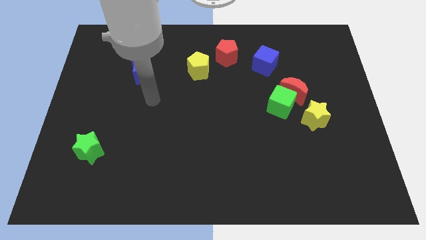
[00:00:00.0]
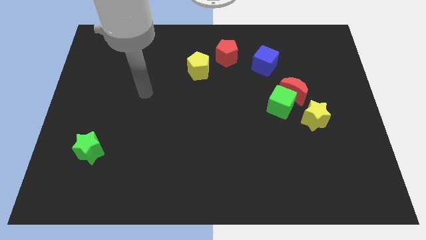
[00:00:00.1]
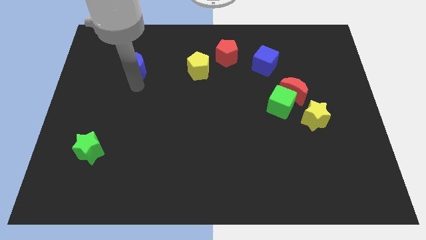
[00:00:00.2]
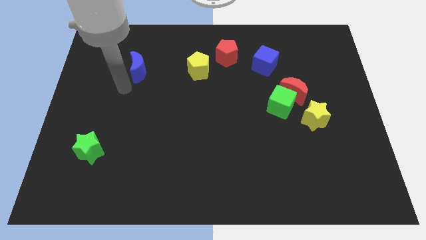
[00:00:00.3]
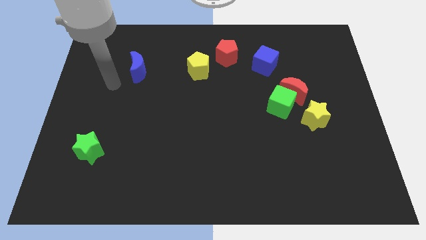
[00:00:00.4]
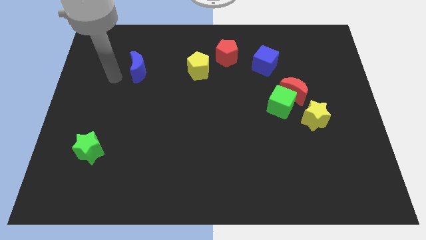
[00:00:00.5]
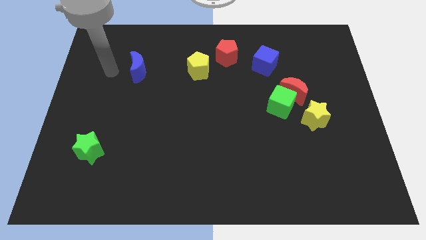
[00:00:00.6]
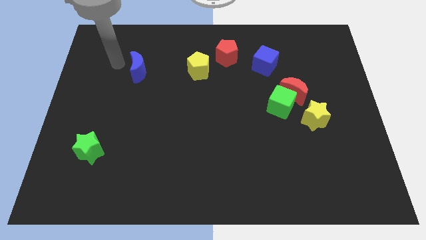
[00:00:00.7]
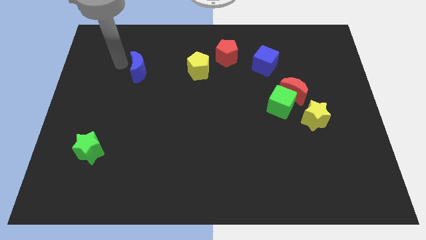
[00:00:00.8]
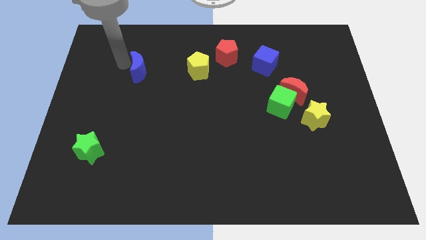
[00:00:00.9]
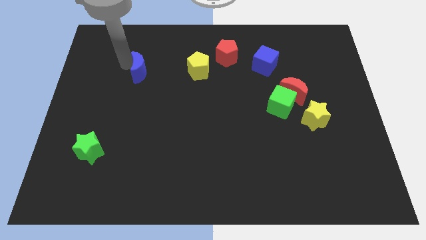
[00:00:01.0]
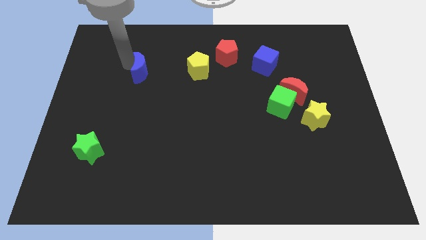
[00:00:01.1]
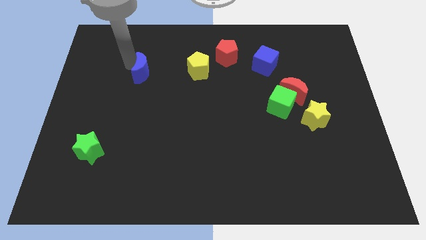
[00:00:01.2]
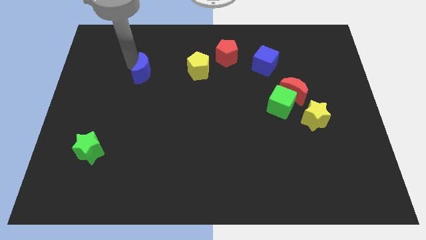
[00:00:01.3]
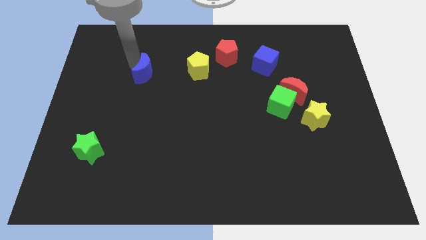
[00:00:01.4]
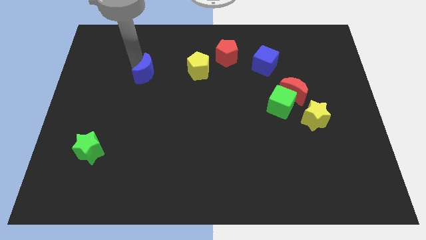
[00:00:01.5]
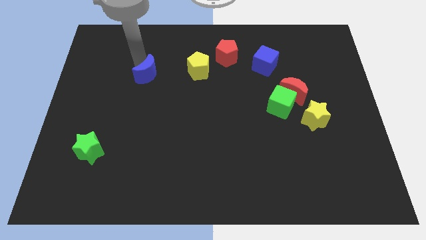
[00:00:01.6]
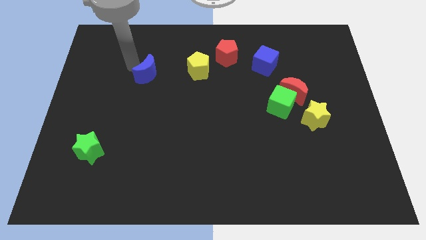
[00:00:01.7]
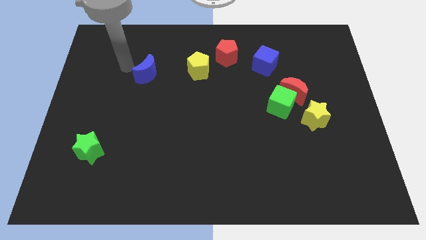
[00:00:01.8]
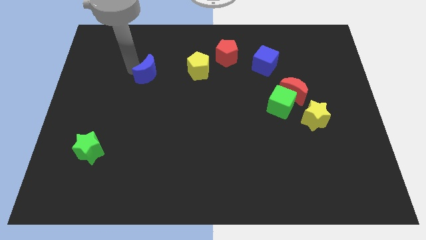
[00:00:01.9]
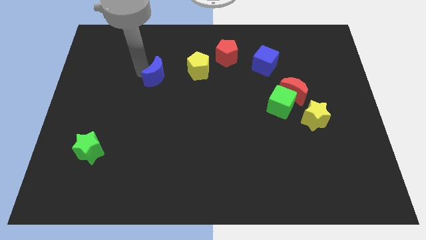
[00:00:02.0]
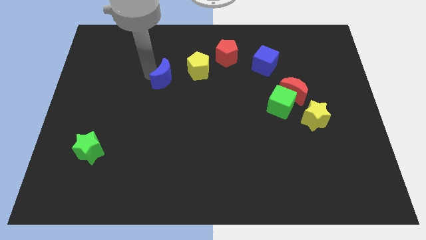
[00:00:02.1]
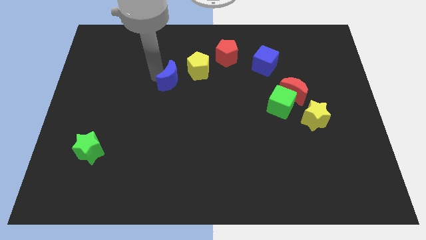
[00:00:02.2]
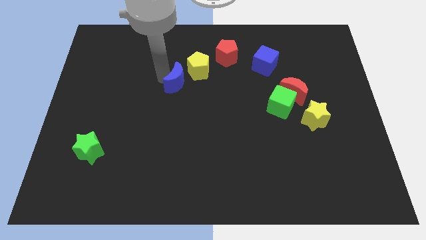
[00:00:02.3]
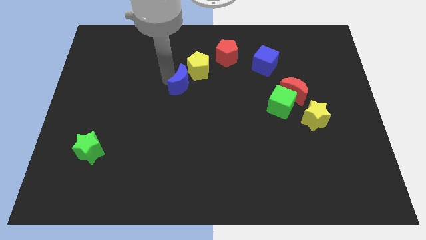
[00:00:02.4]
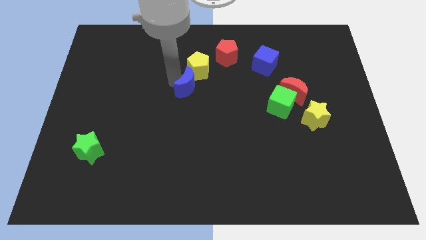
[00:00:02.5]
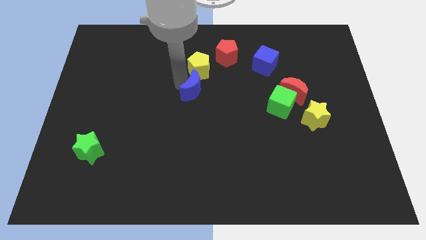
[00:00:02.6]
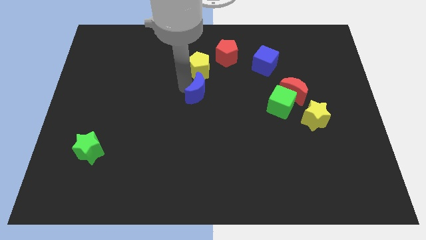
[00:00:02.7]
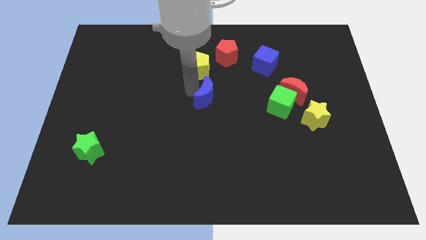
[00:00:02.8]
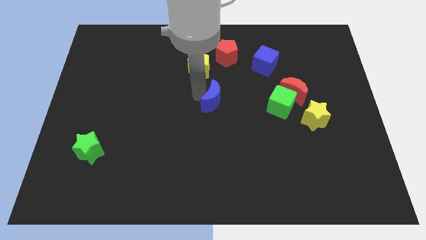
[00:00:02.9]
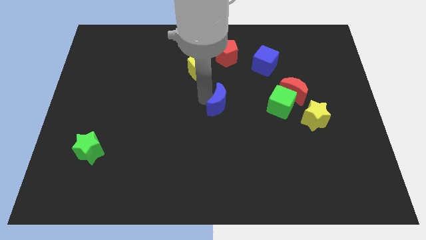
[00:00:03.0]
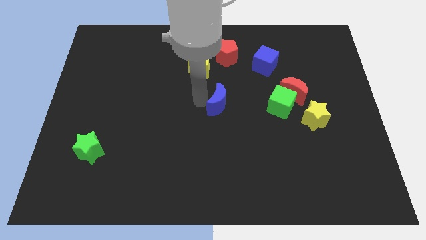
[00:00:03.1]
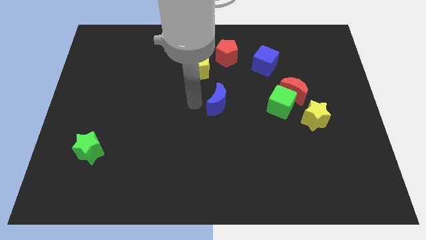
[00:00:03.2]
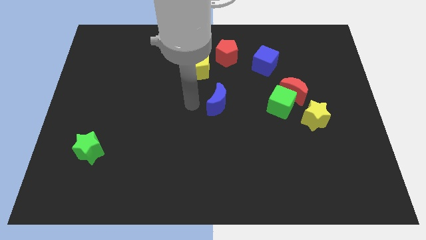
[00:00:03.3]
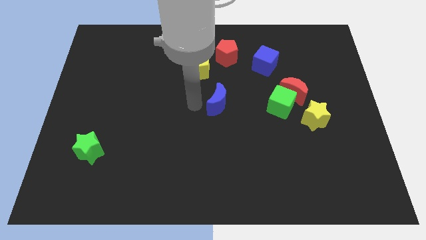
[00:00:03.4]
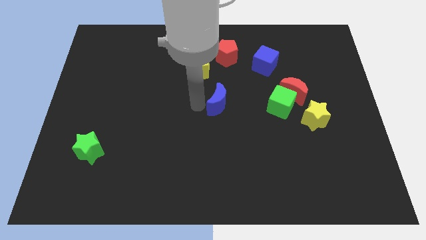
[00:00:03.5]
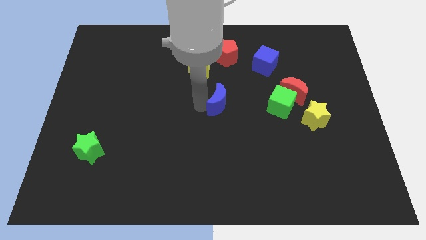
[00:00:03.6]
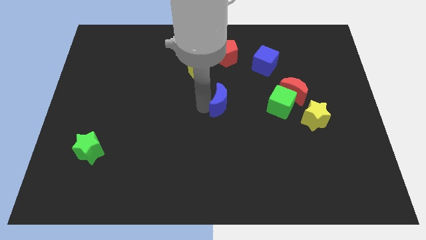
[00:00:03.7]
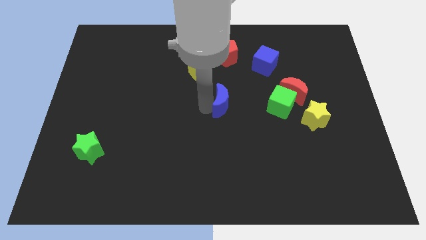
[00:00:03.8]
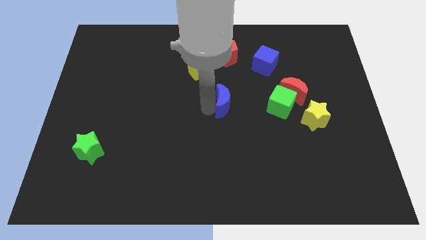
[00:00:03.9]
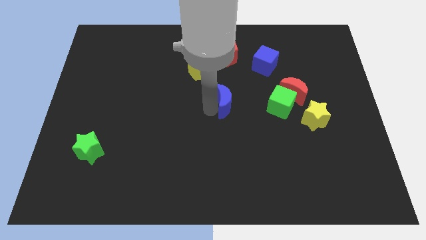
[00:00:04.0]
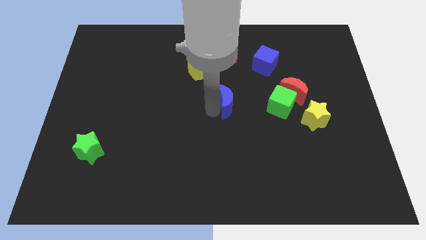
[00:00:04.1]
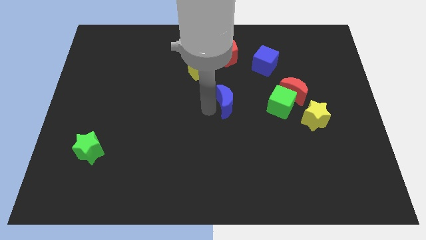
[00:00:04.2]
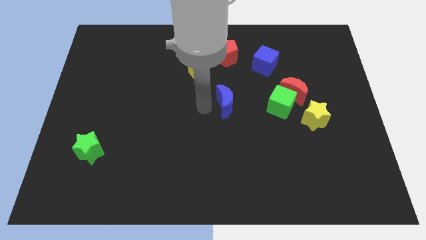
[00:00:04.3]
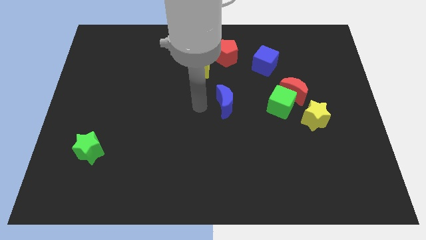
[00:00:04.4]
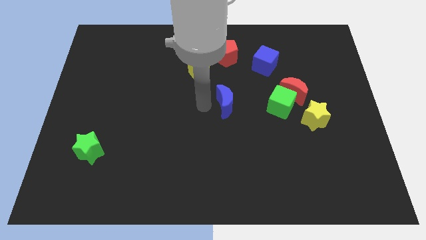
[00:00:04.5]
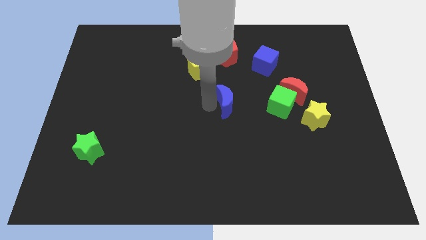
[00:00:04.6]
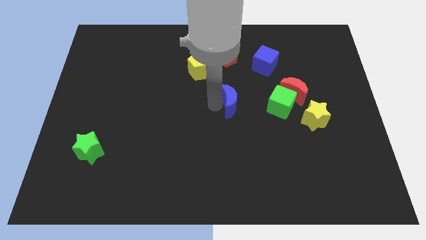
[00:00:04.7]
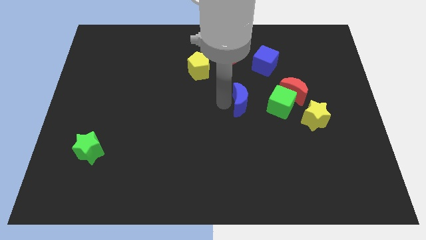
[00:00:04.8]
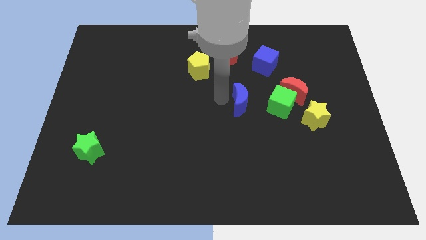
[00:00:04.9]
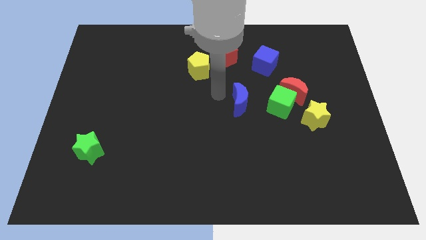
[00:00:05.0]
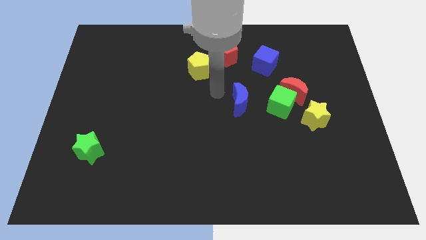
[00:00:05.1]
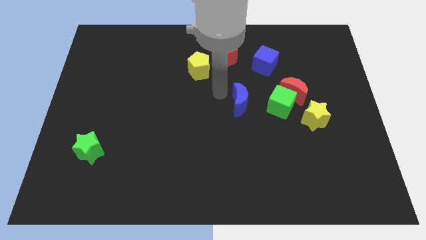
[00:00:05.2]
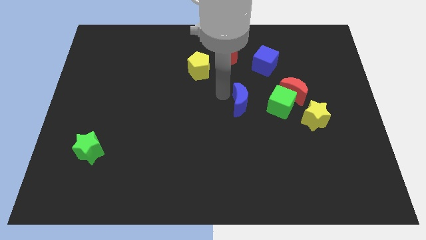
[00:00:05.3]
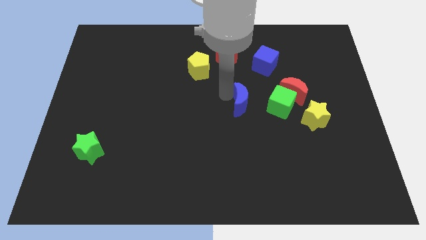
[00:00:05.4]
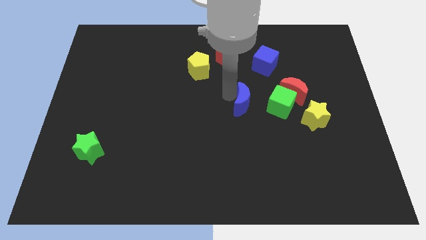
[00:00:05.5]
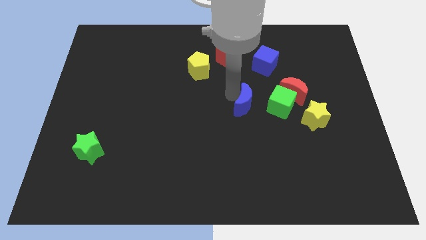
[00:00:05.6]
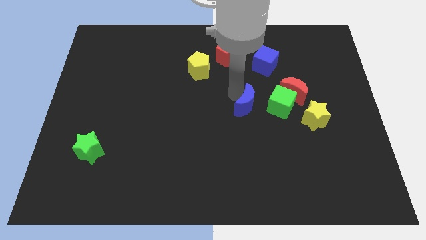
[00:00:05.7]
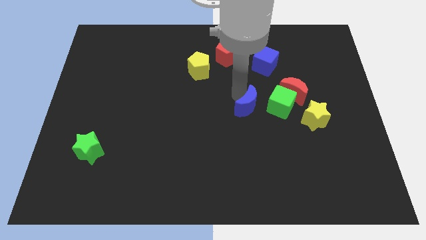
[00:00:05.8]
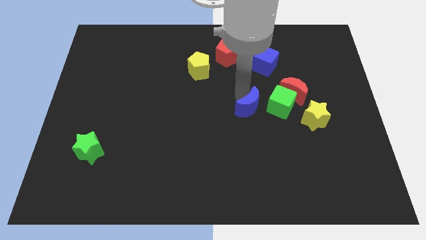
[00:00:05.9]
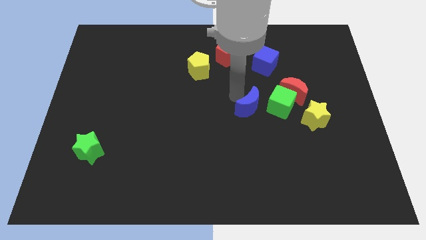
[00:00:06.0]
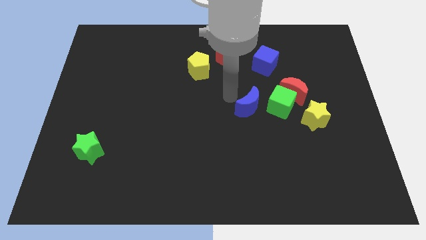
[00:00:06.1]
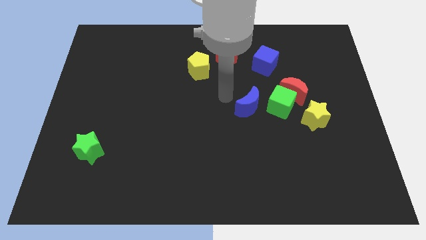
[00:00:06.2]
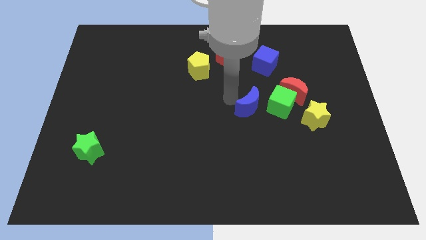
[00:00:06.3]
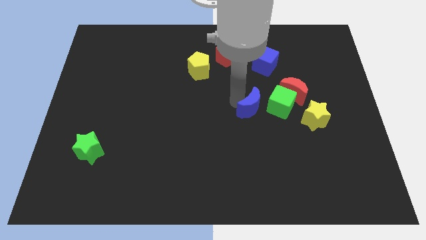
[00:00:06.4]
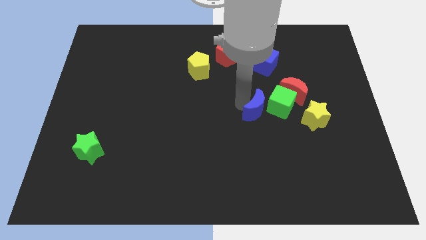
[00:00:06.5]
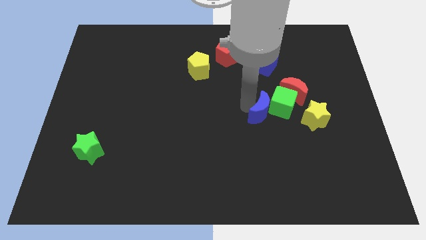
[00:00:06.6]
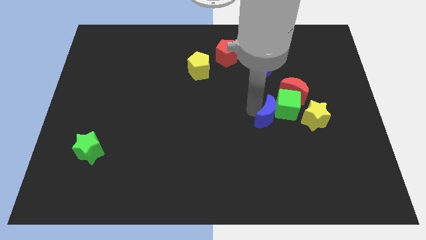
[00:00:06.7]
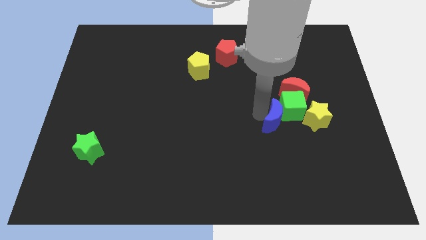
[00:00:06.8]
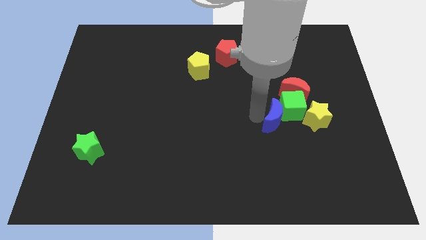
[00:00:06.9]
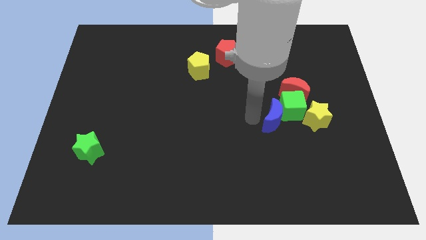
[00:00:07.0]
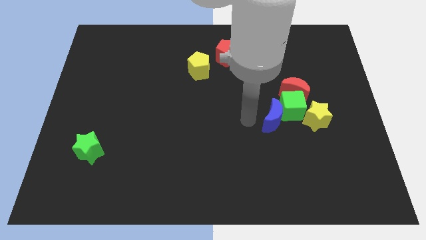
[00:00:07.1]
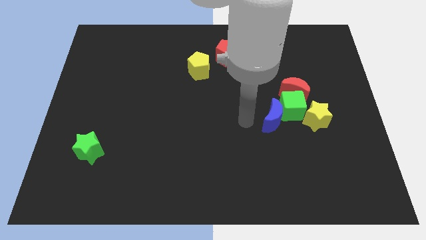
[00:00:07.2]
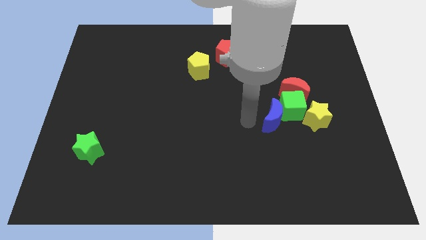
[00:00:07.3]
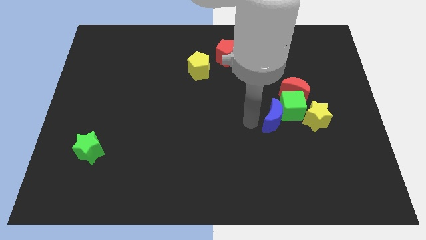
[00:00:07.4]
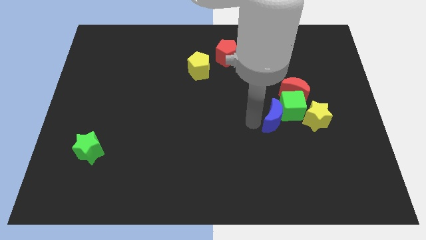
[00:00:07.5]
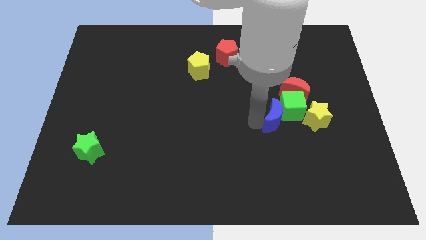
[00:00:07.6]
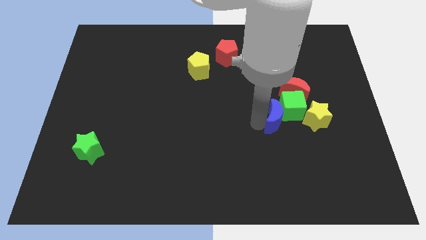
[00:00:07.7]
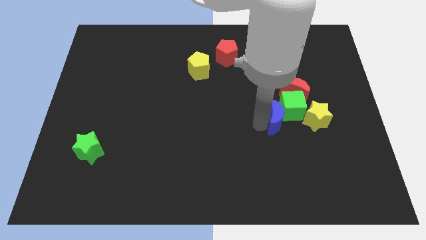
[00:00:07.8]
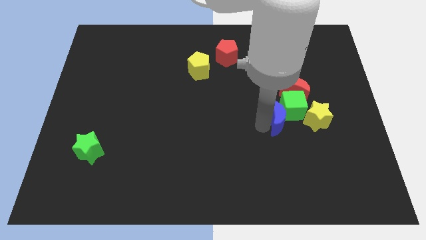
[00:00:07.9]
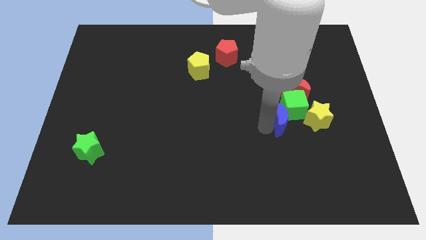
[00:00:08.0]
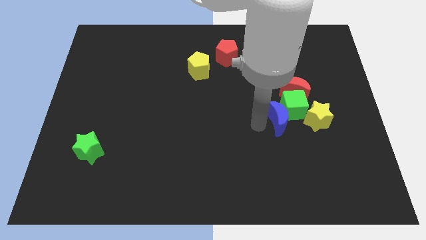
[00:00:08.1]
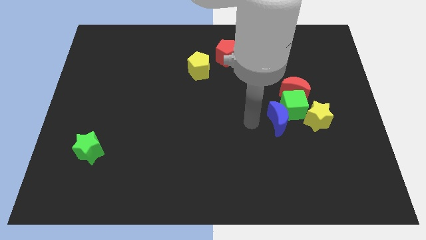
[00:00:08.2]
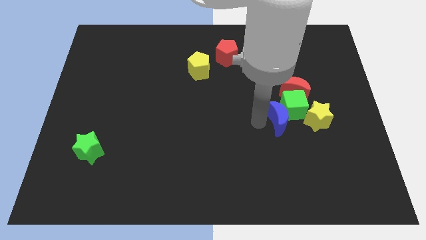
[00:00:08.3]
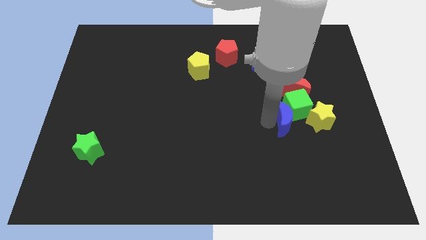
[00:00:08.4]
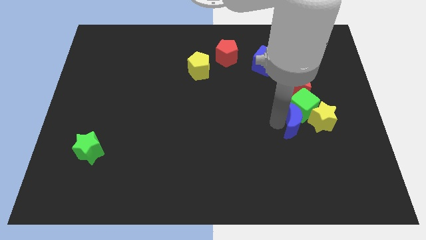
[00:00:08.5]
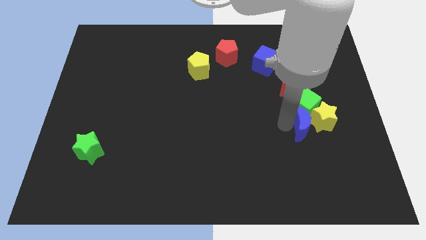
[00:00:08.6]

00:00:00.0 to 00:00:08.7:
slide the blue moon towards the yellow star
